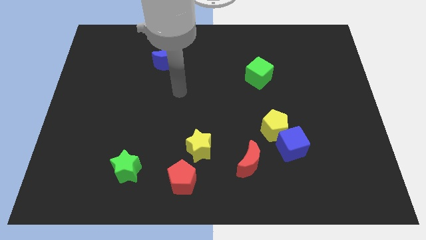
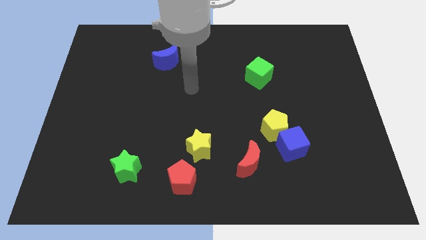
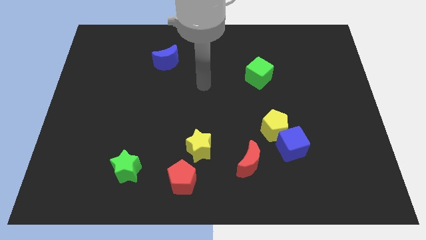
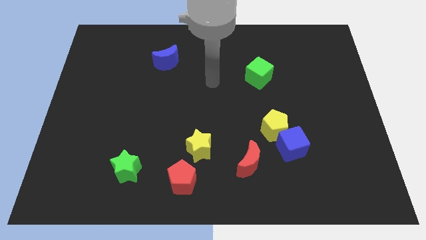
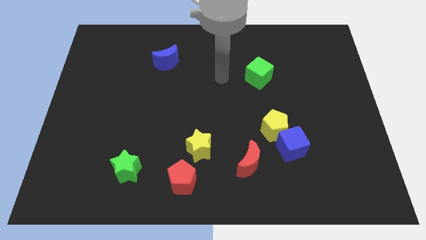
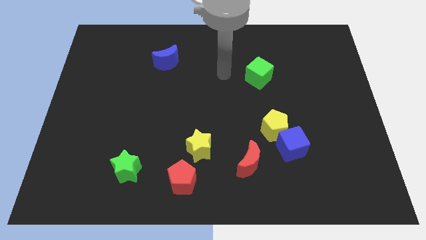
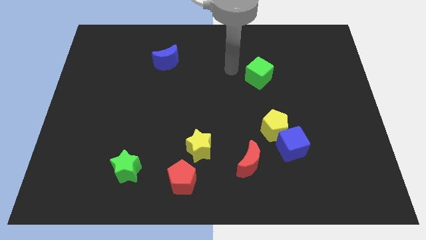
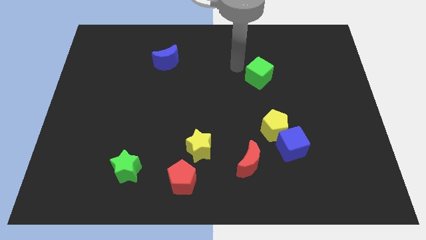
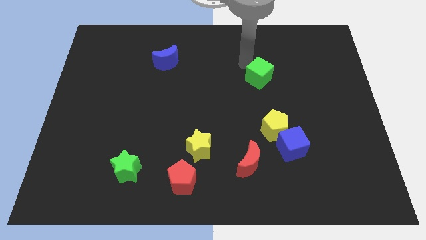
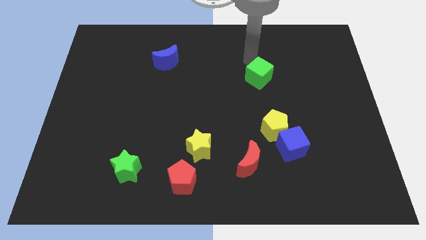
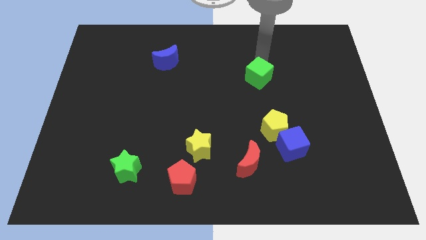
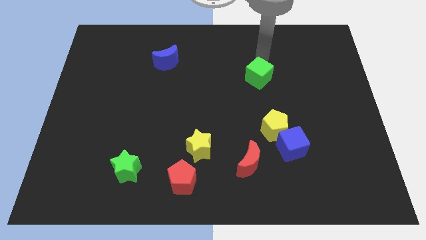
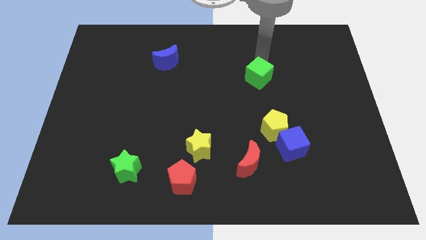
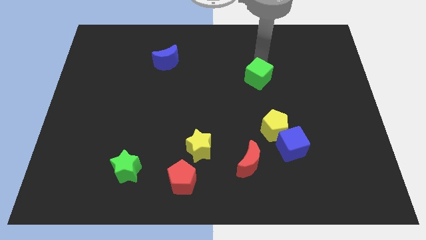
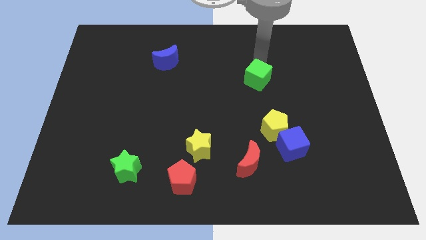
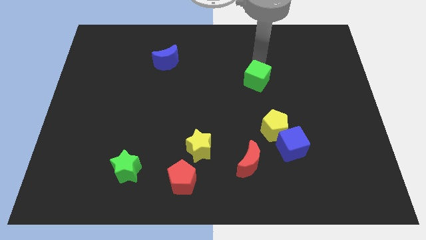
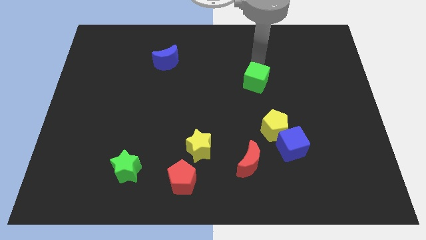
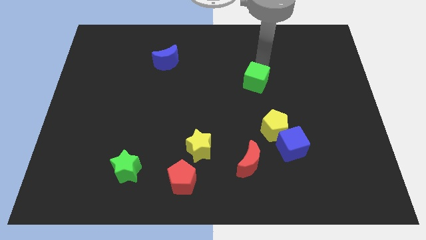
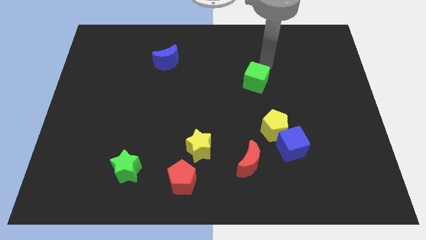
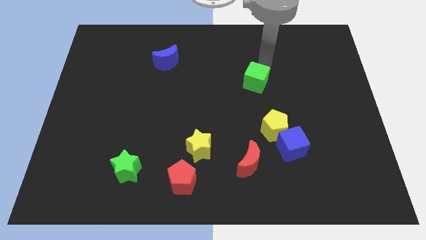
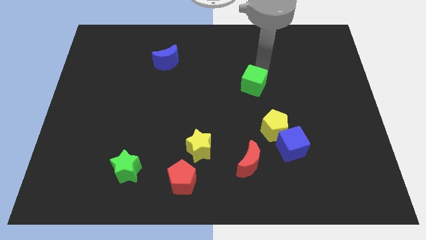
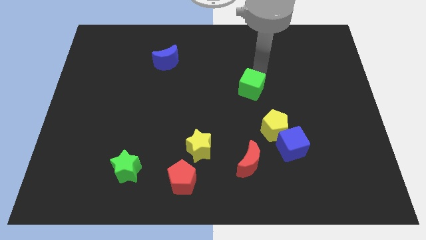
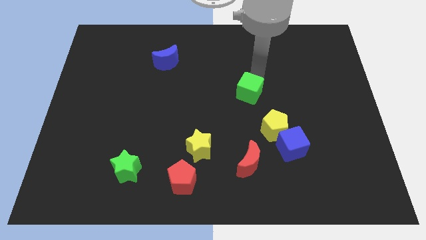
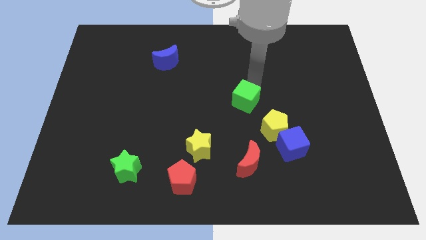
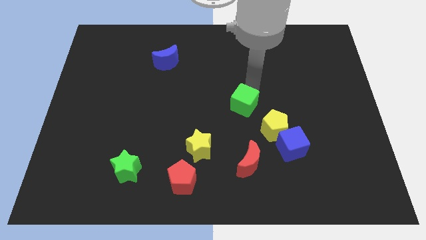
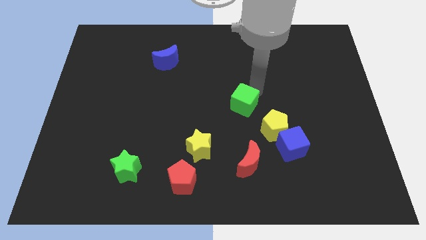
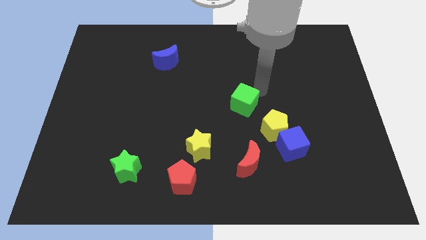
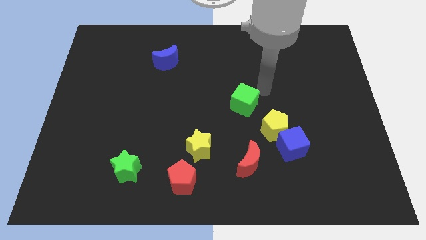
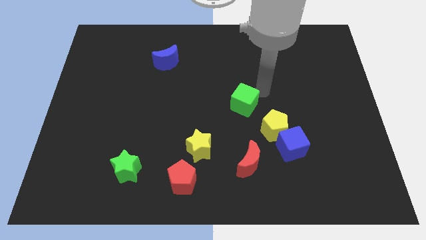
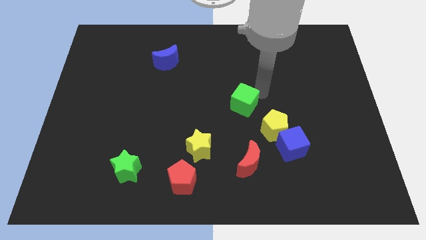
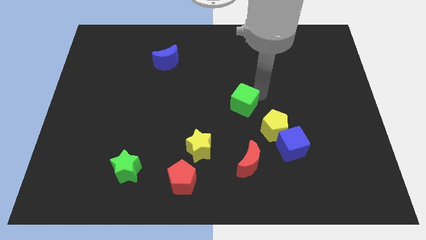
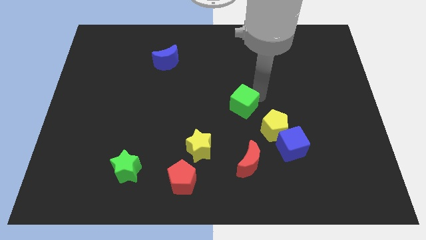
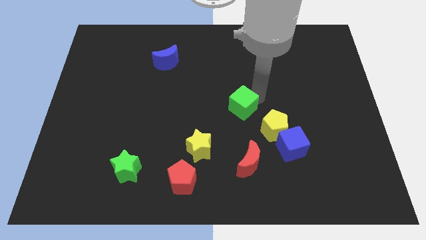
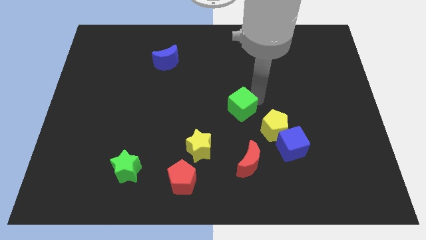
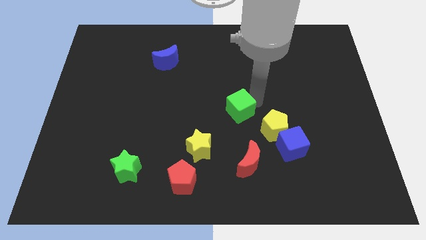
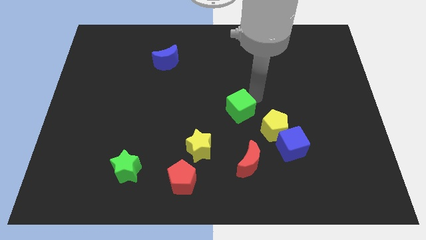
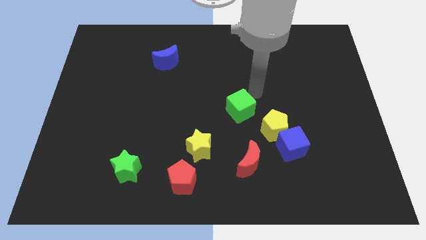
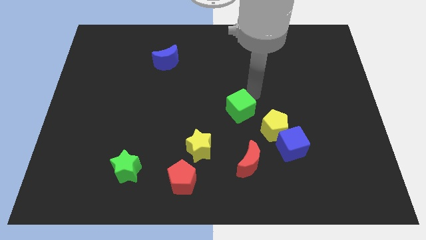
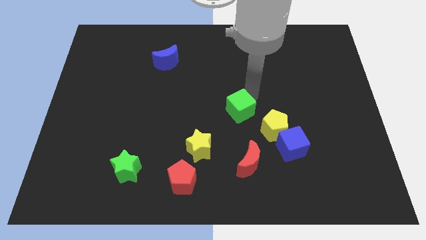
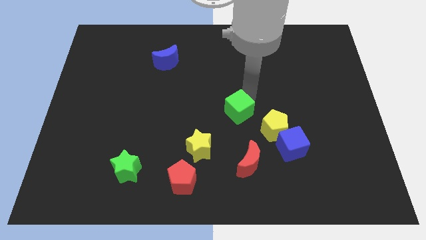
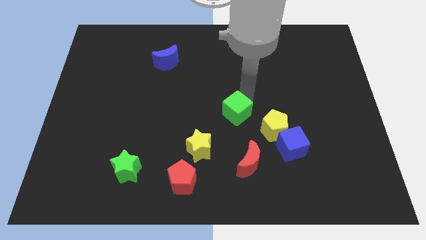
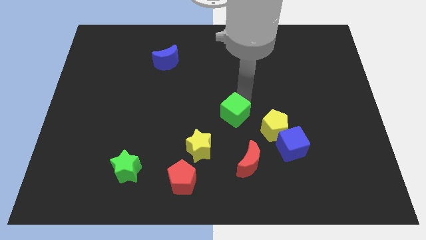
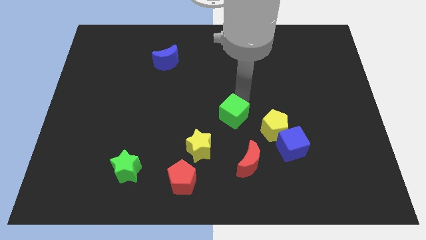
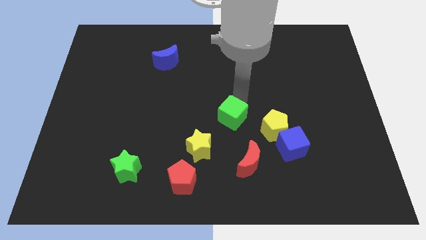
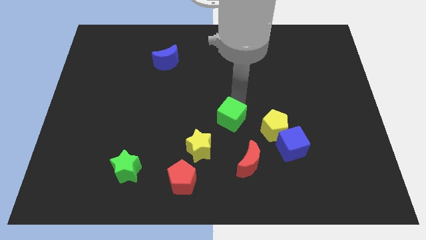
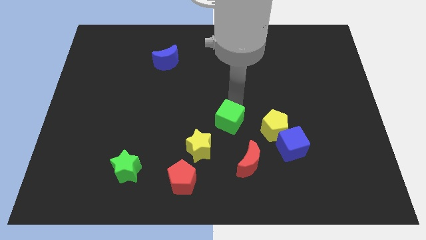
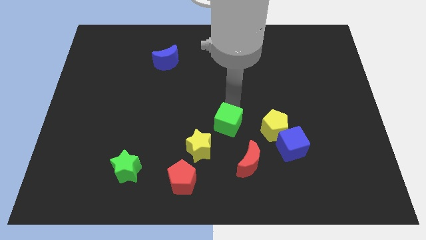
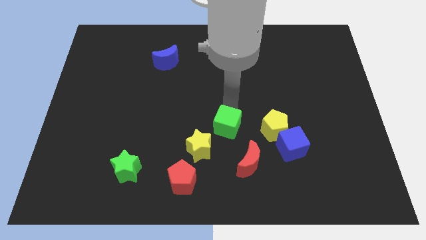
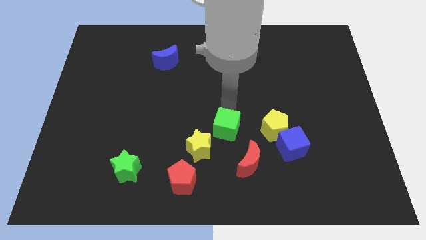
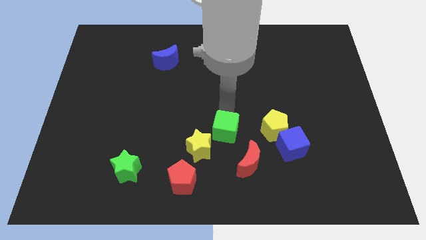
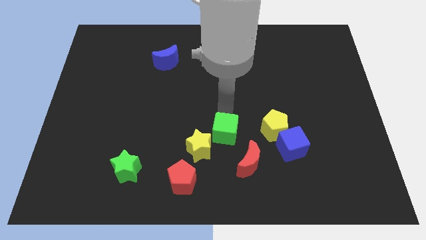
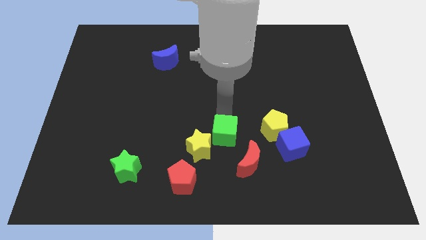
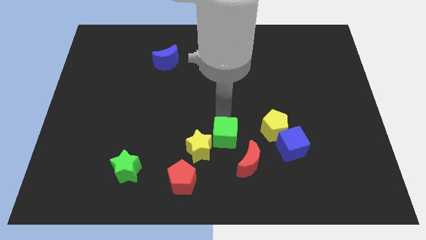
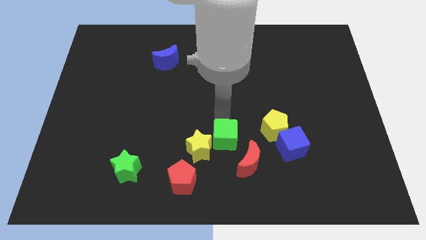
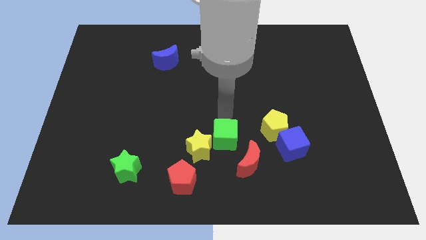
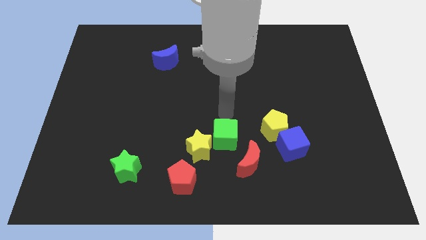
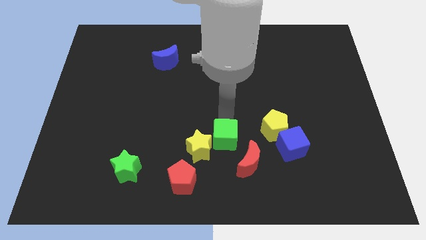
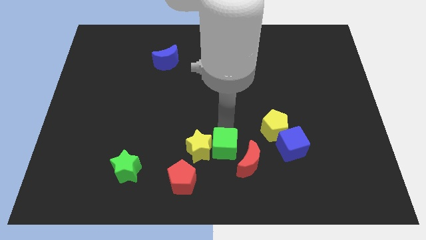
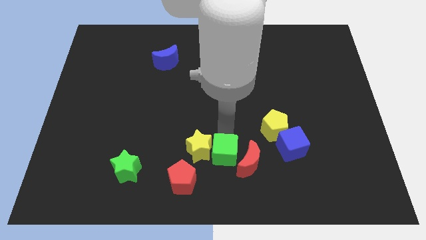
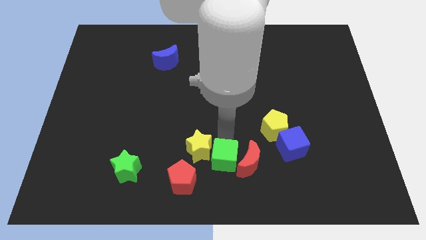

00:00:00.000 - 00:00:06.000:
push the green cube to the bottom

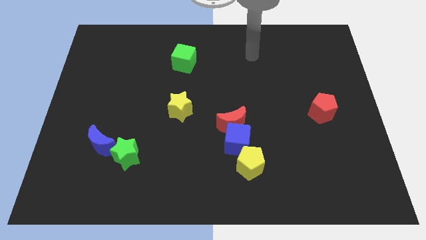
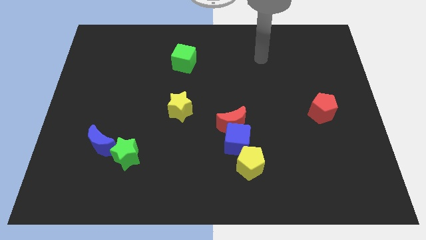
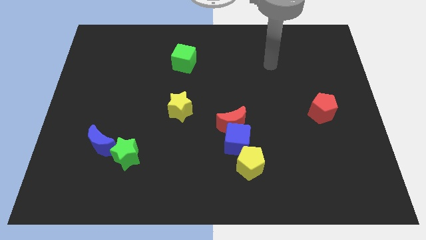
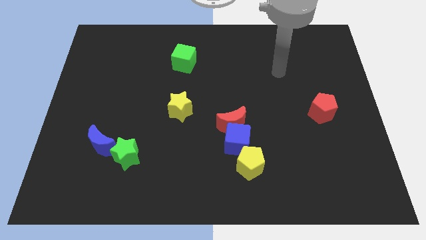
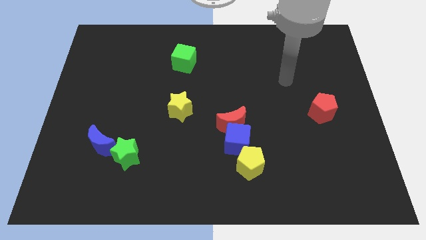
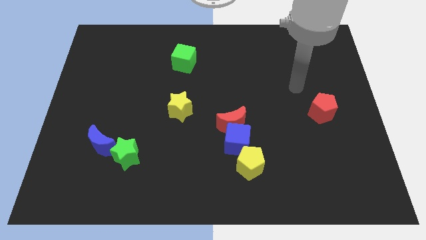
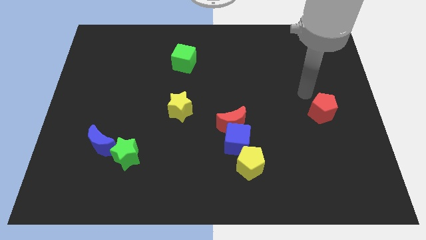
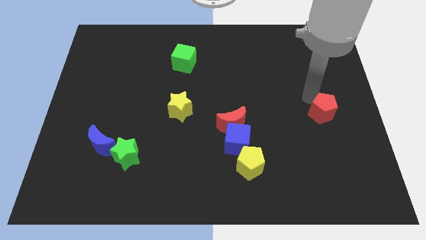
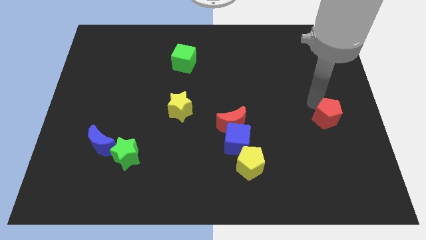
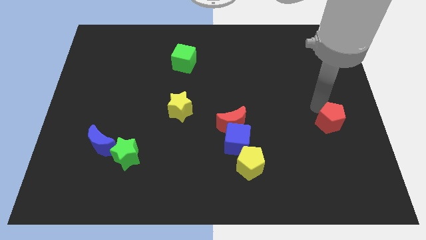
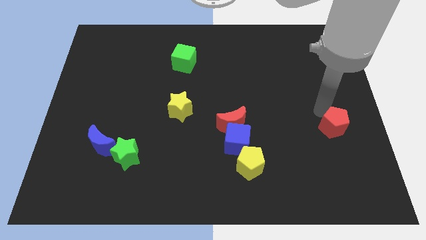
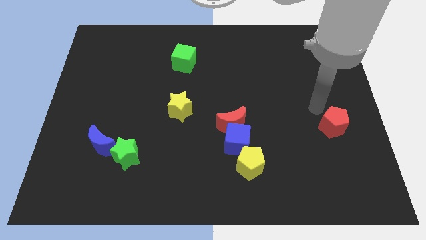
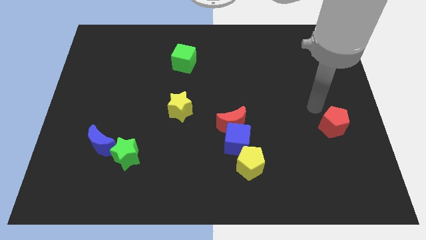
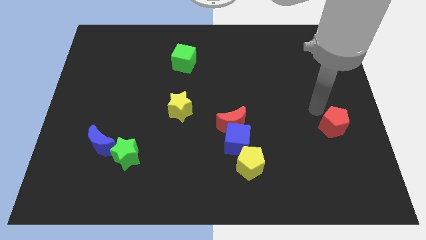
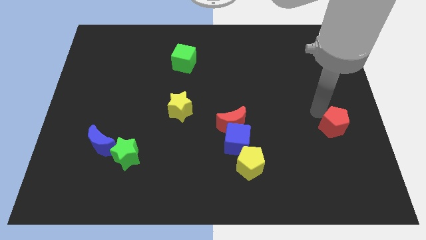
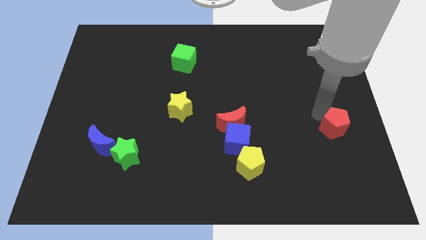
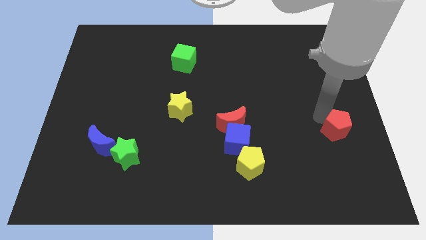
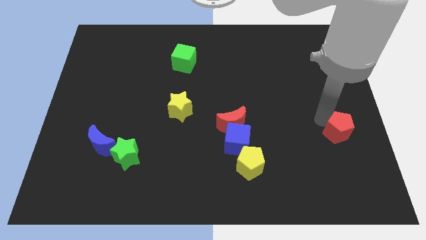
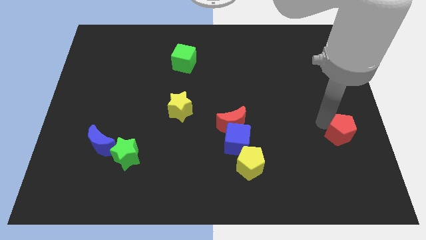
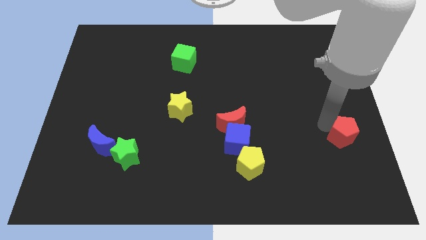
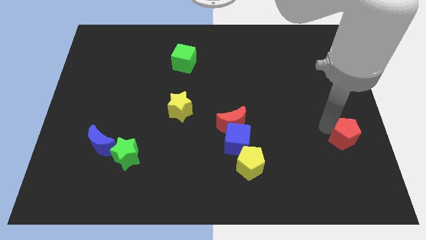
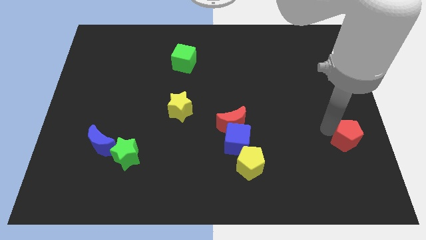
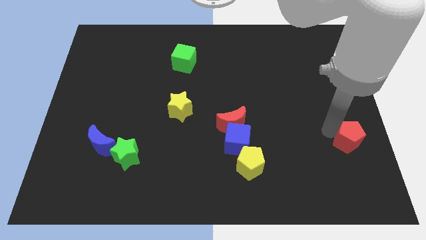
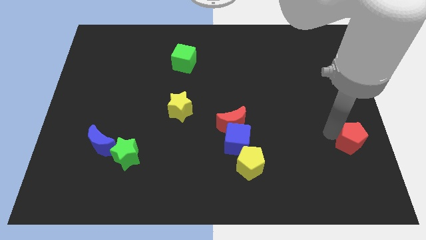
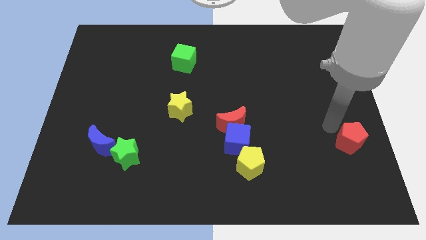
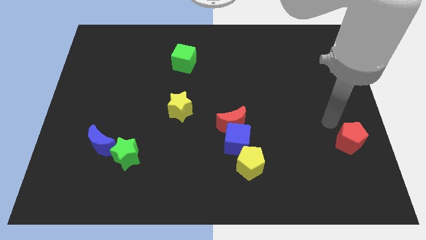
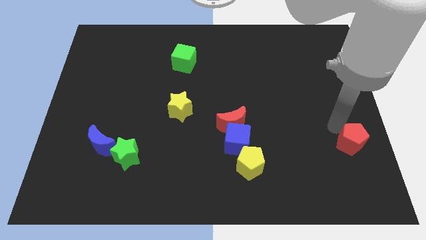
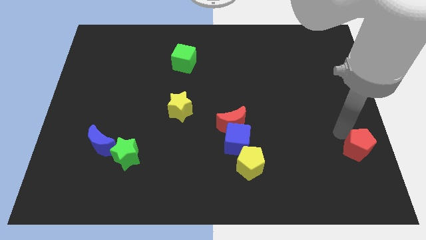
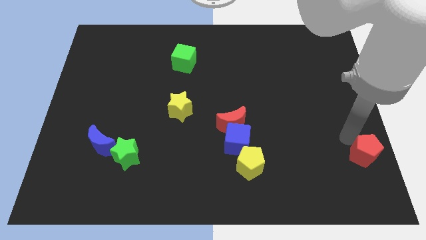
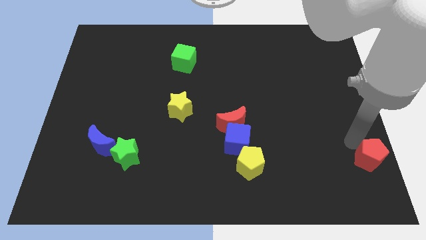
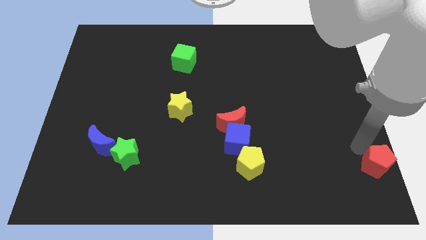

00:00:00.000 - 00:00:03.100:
put the red pentagon to the bottom right
